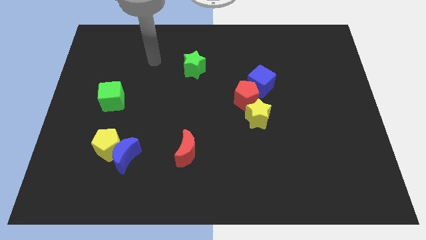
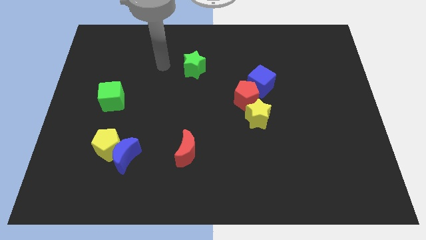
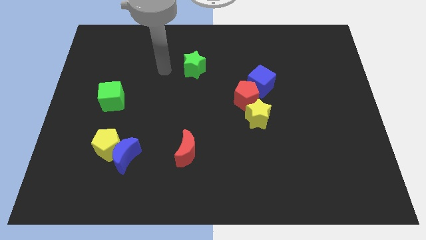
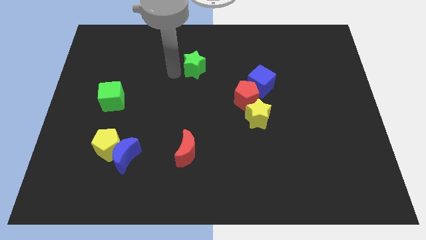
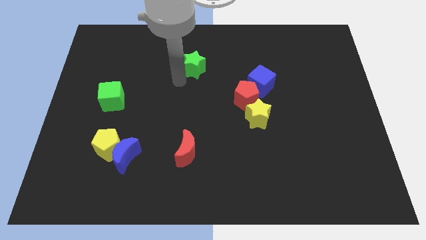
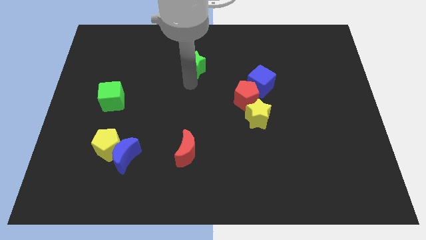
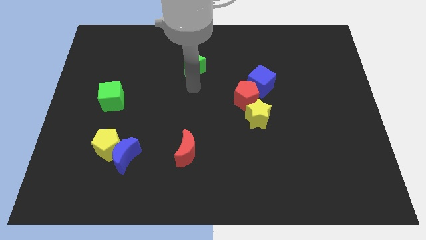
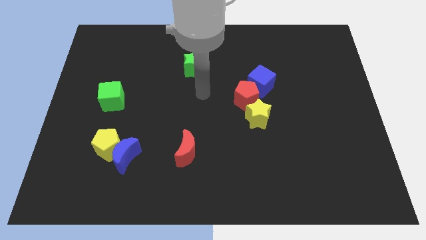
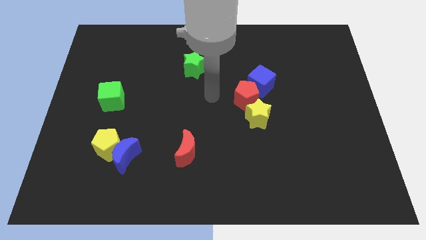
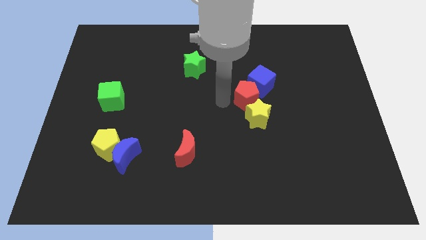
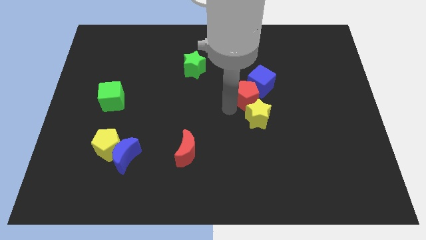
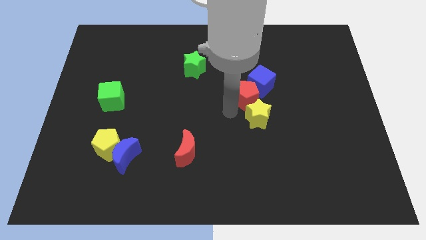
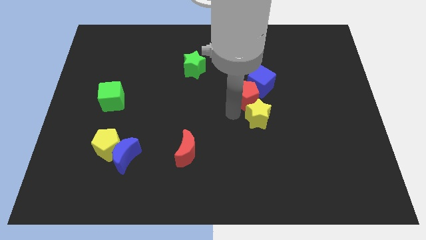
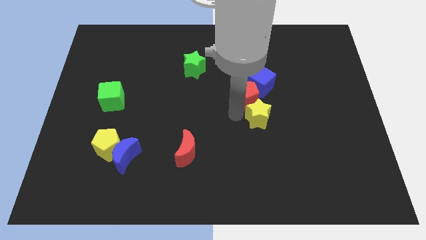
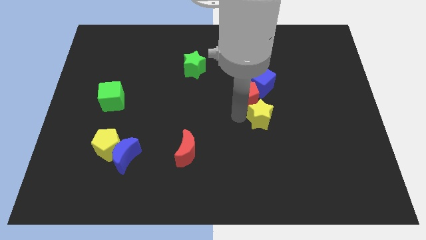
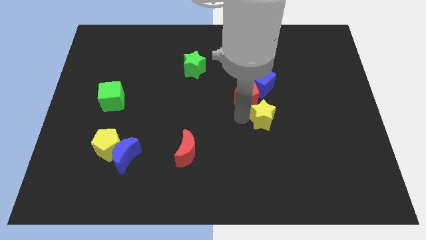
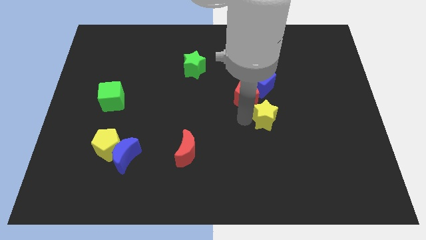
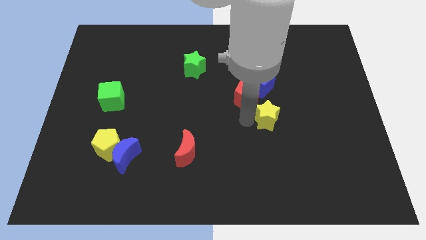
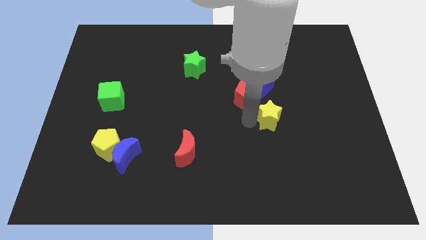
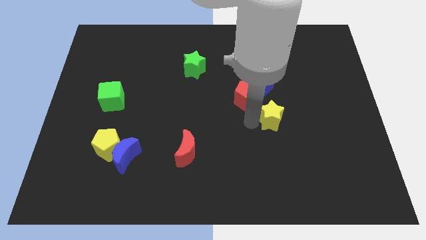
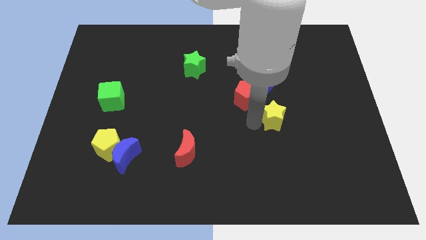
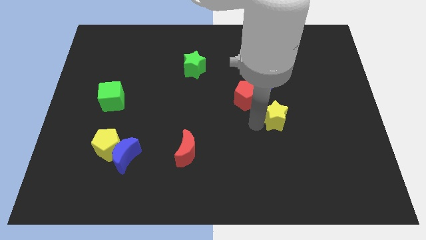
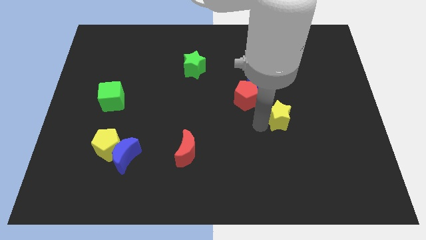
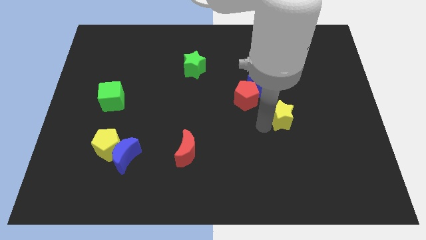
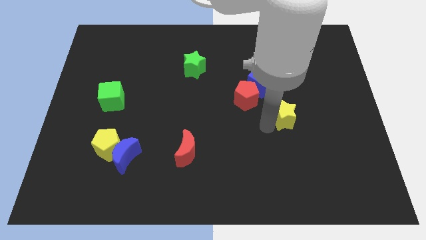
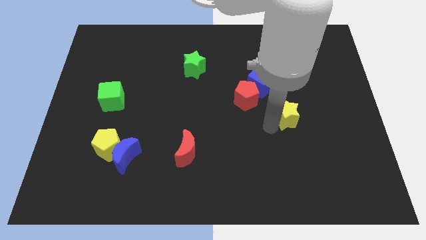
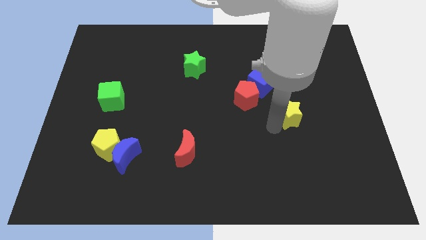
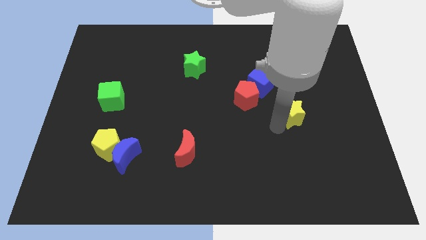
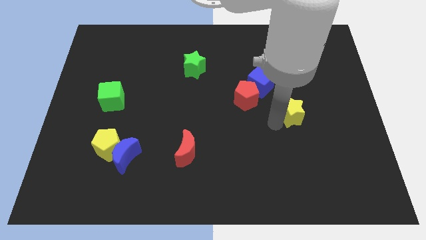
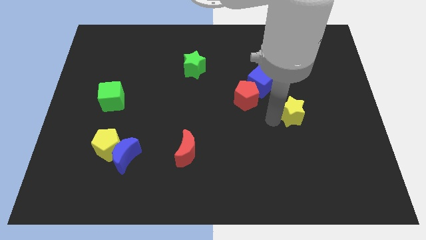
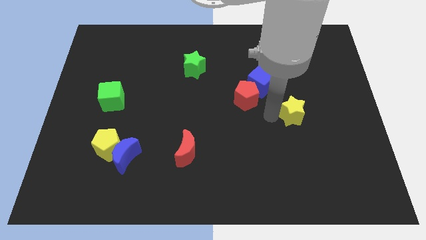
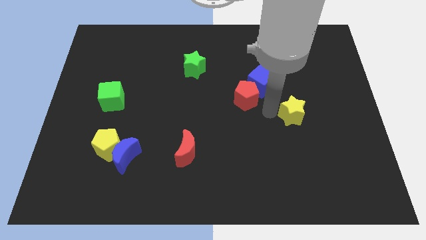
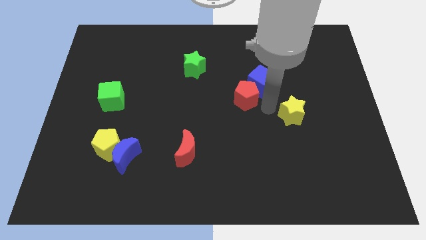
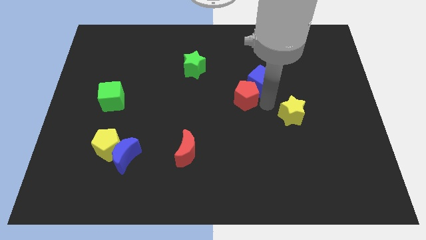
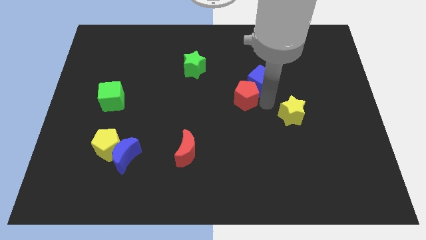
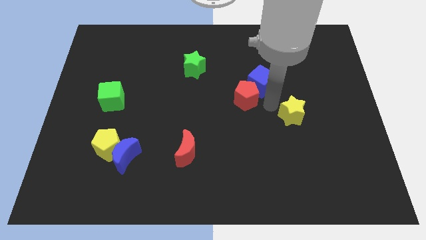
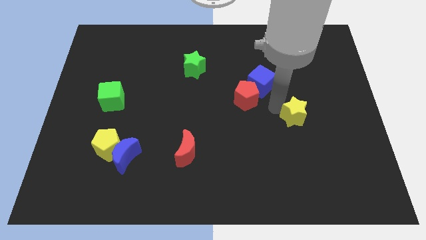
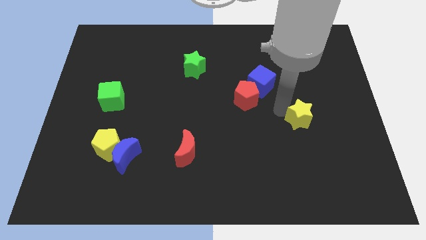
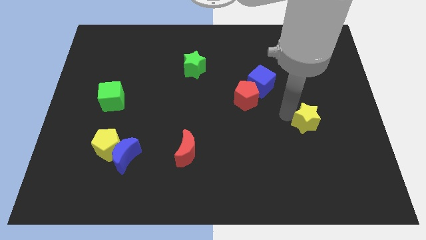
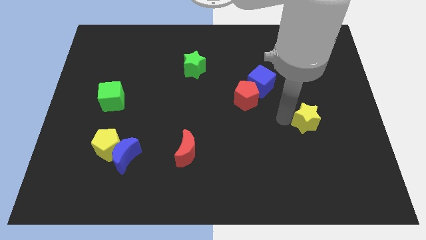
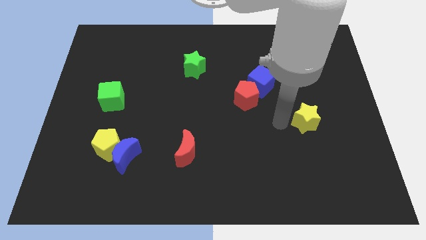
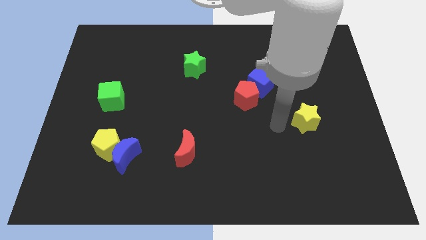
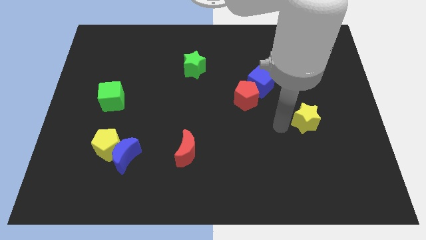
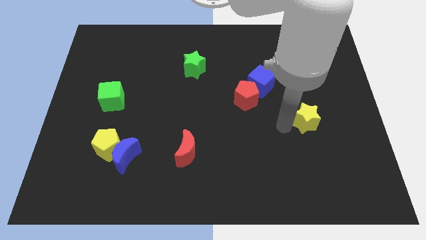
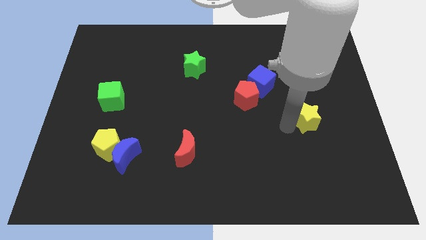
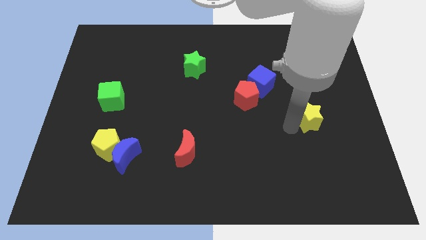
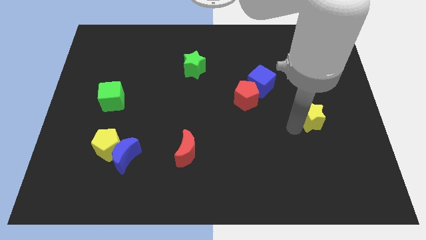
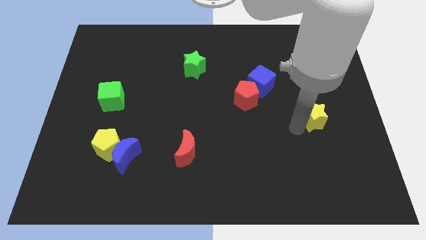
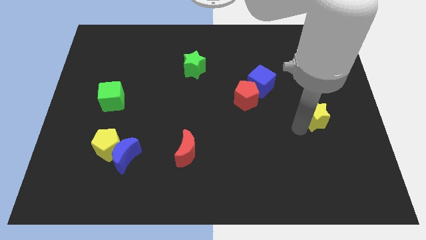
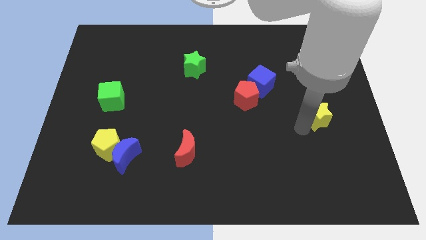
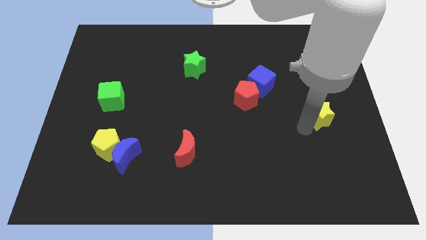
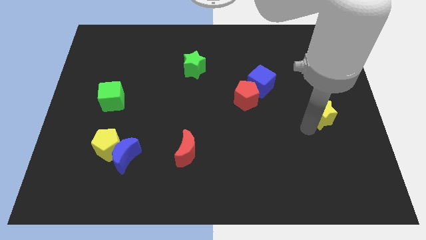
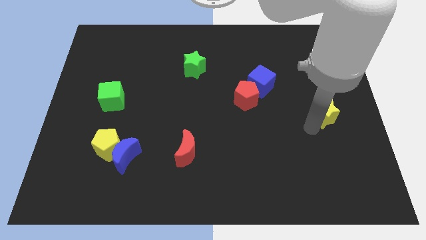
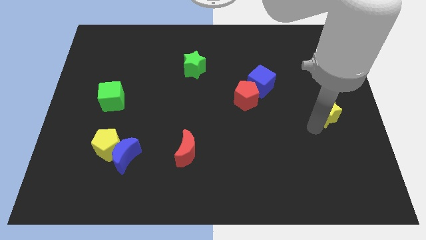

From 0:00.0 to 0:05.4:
push the yellow star to the center right
